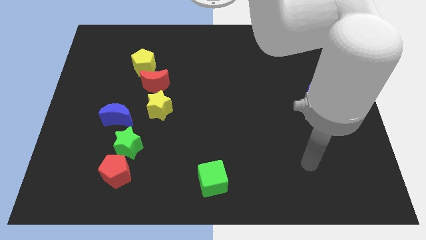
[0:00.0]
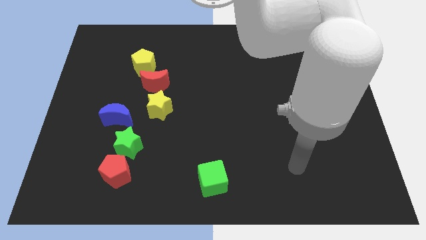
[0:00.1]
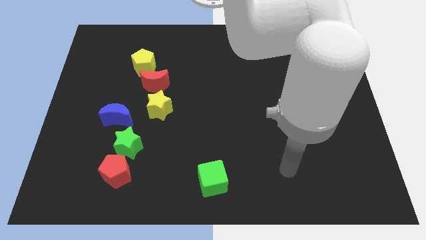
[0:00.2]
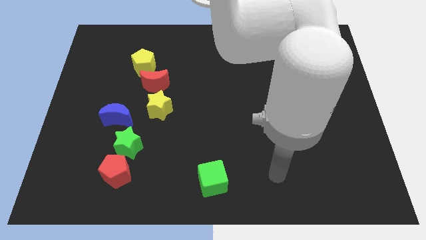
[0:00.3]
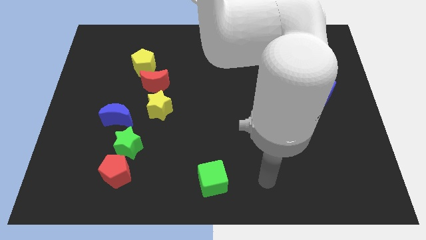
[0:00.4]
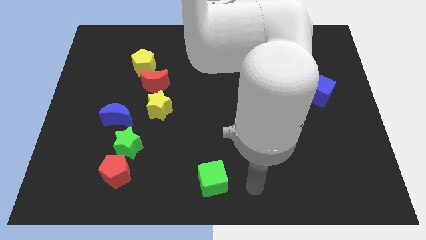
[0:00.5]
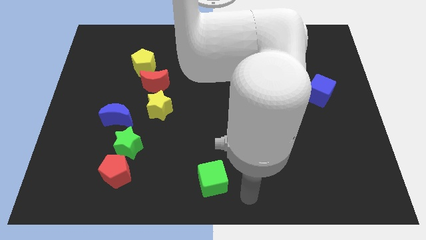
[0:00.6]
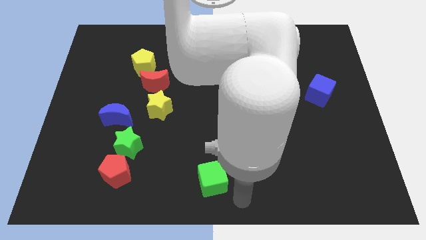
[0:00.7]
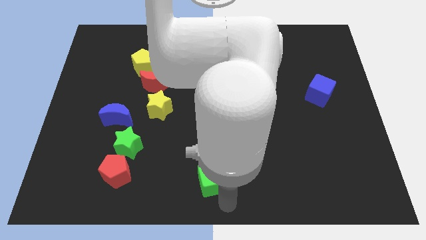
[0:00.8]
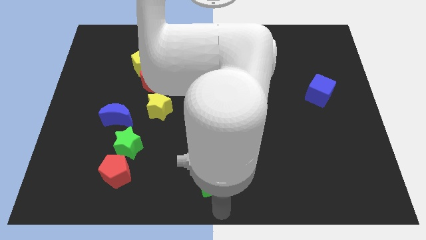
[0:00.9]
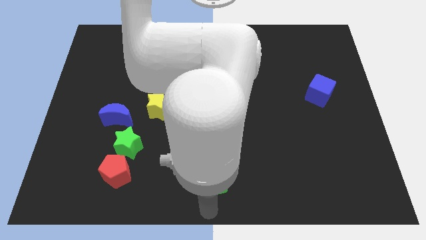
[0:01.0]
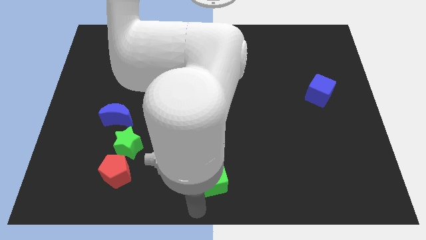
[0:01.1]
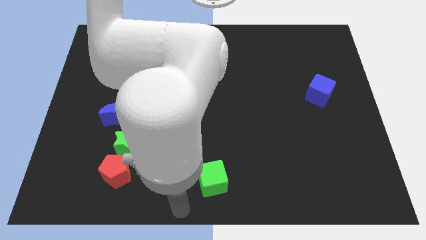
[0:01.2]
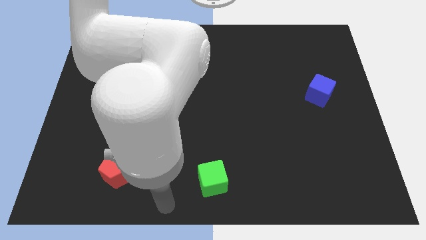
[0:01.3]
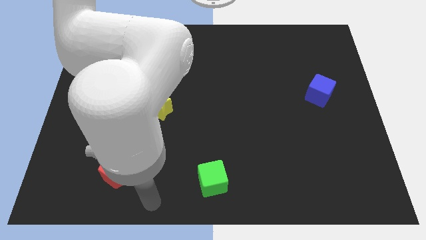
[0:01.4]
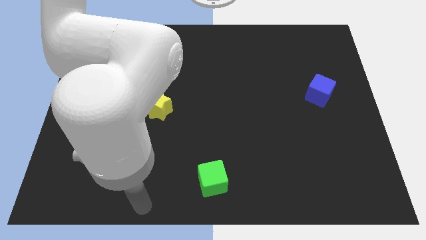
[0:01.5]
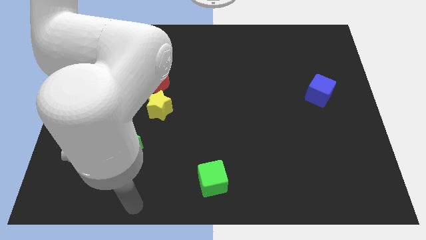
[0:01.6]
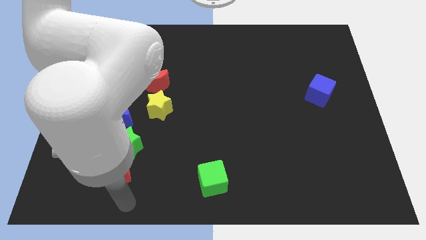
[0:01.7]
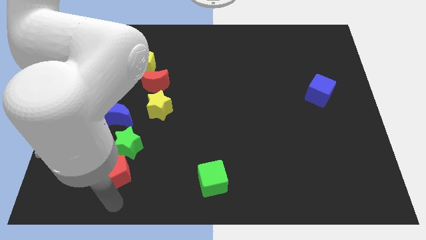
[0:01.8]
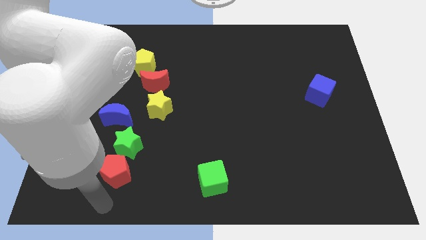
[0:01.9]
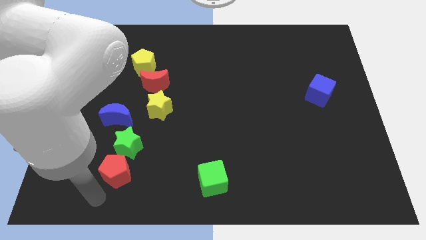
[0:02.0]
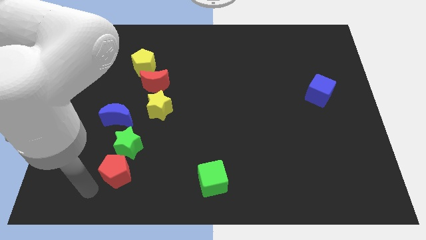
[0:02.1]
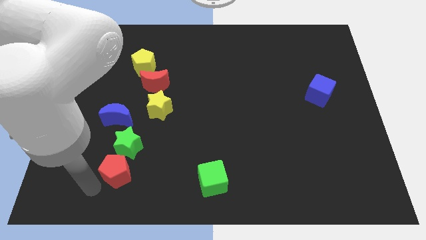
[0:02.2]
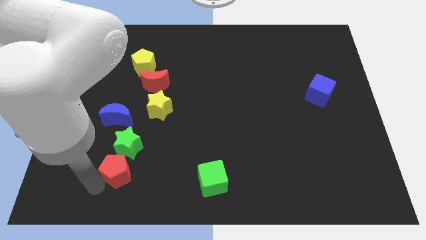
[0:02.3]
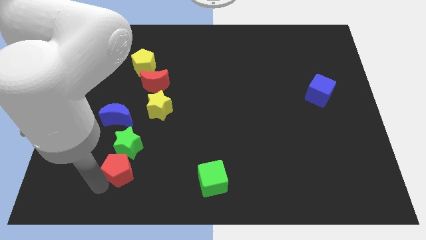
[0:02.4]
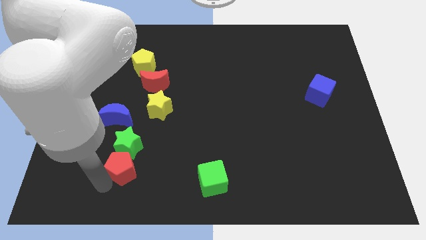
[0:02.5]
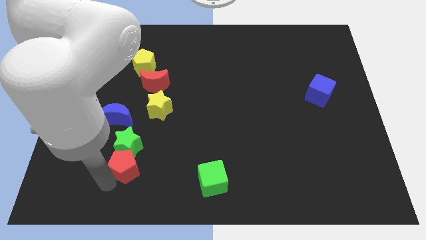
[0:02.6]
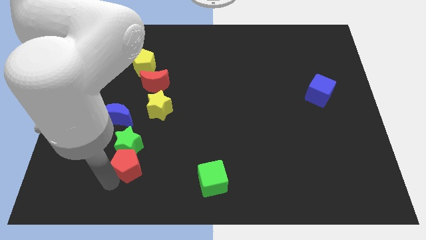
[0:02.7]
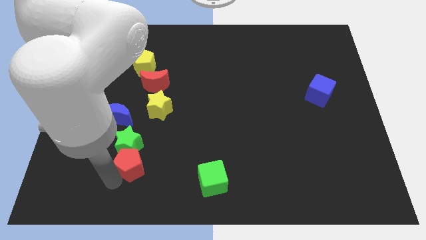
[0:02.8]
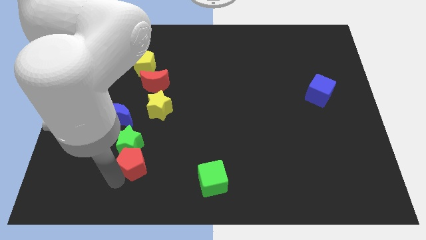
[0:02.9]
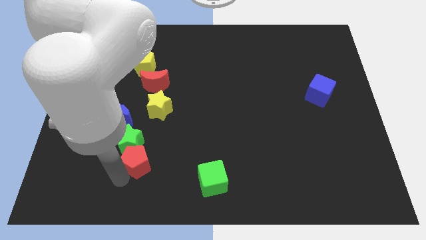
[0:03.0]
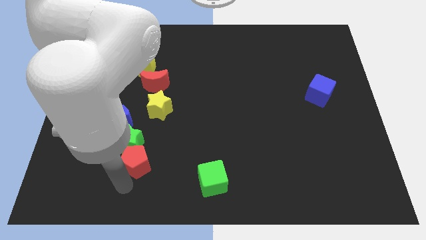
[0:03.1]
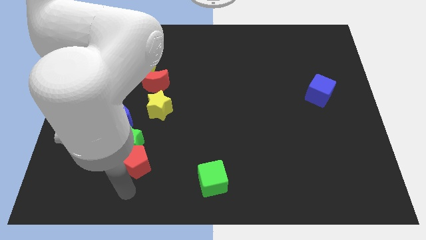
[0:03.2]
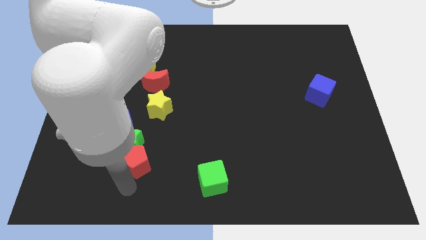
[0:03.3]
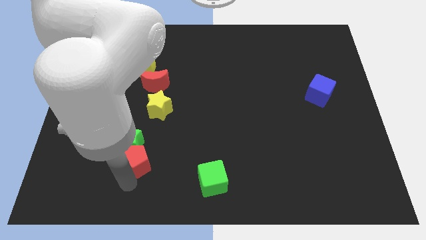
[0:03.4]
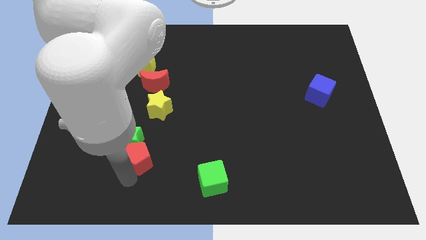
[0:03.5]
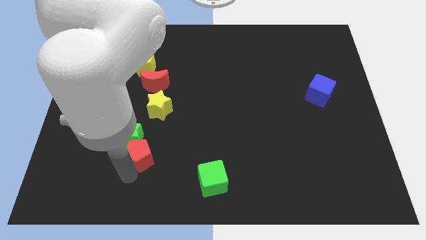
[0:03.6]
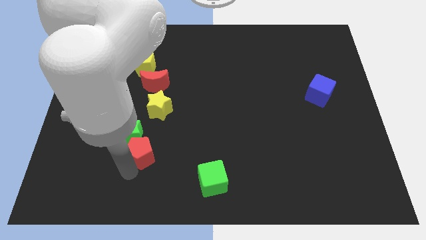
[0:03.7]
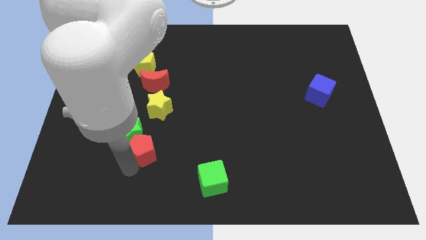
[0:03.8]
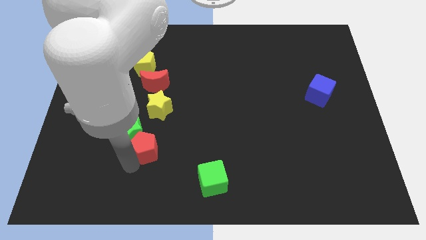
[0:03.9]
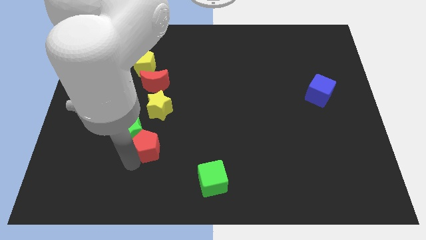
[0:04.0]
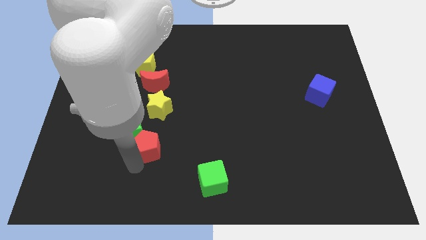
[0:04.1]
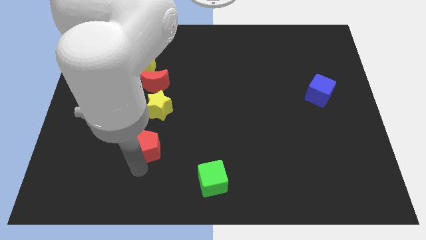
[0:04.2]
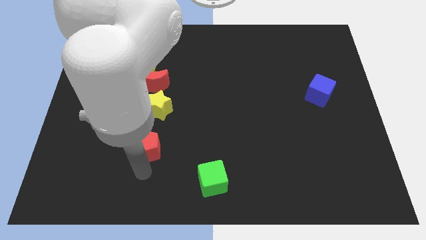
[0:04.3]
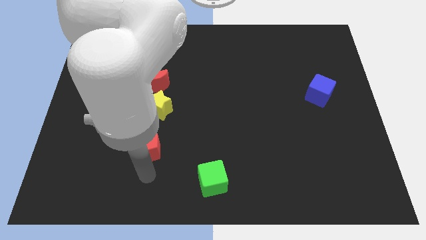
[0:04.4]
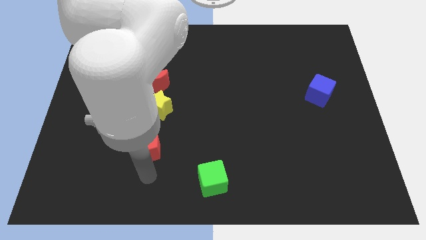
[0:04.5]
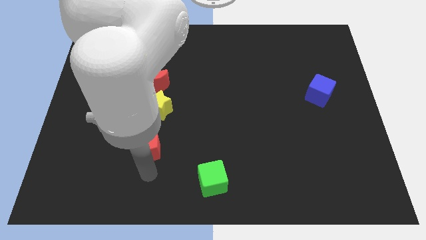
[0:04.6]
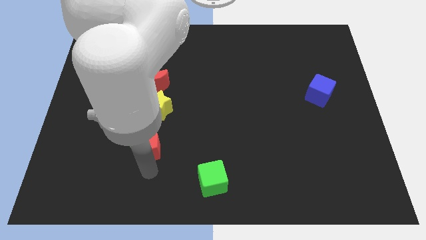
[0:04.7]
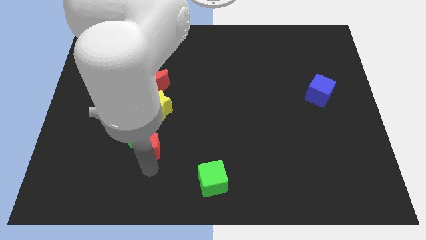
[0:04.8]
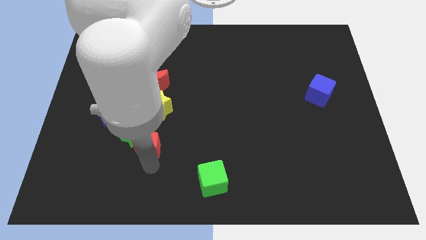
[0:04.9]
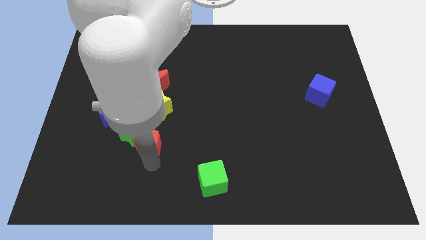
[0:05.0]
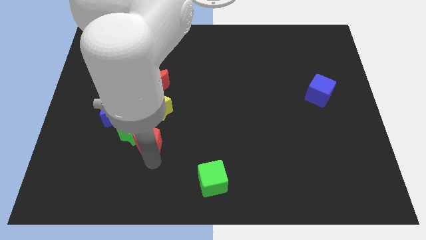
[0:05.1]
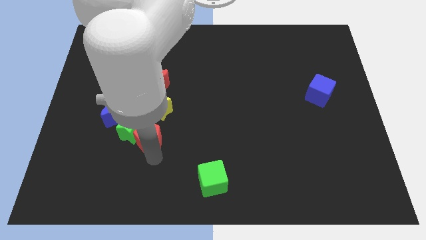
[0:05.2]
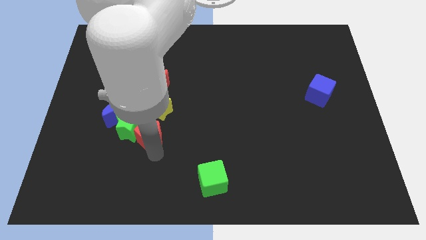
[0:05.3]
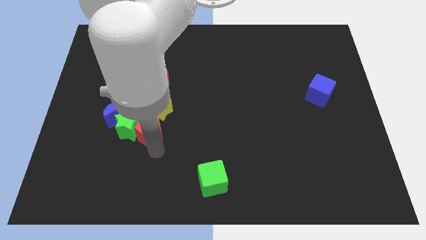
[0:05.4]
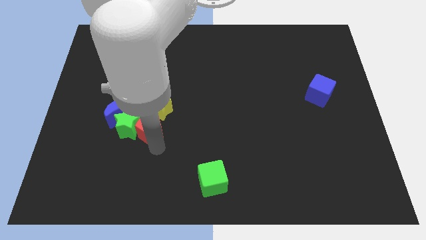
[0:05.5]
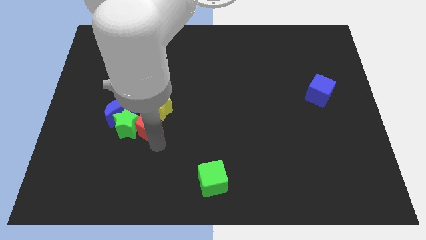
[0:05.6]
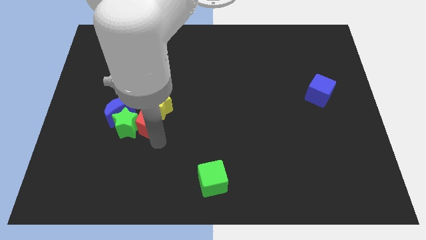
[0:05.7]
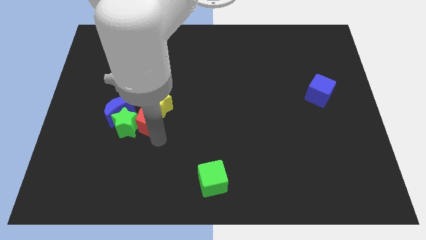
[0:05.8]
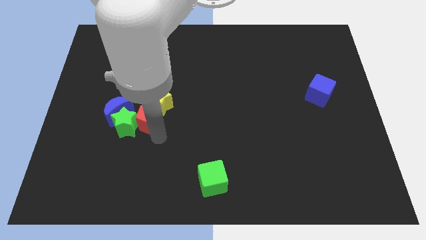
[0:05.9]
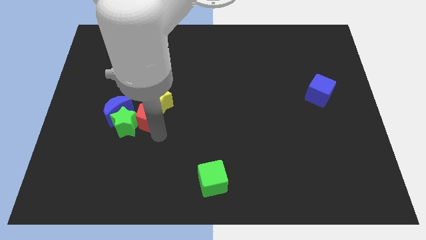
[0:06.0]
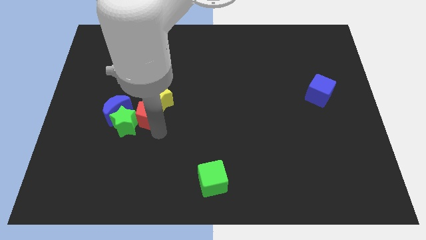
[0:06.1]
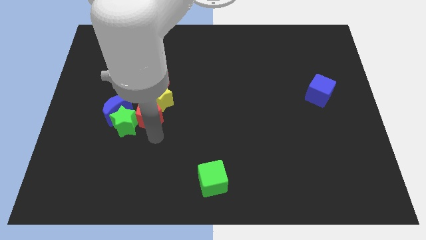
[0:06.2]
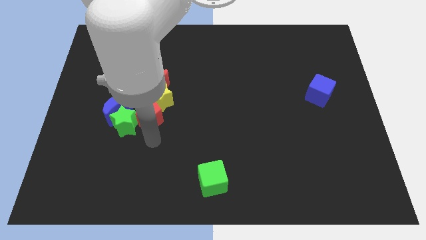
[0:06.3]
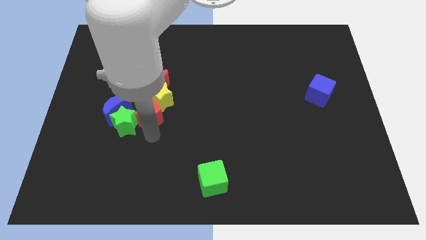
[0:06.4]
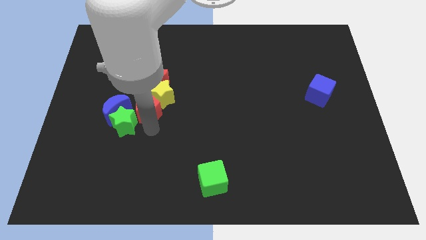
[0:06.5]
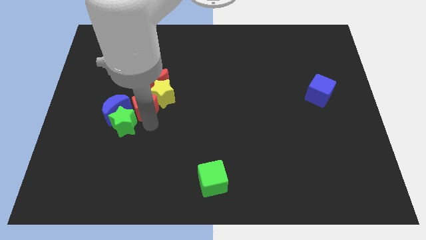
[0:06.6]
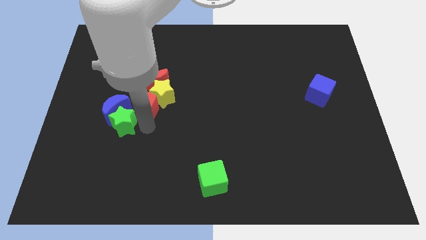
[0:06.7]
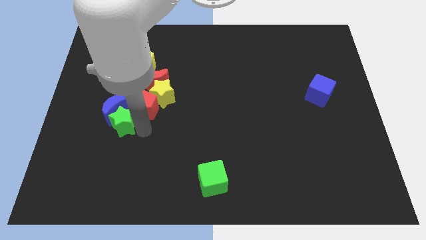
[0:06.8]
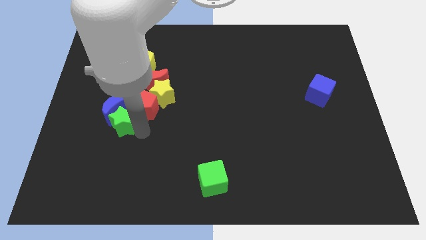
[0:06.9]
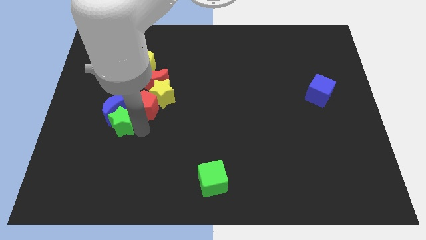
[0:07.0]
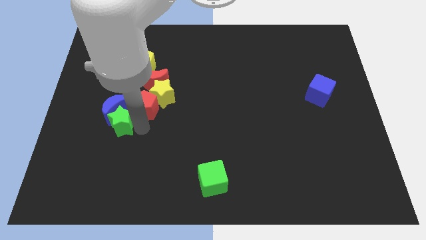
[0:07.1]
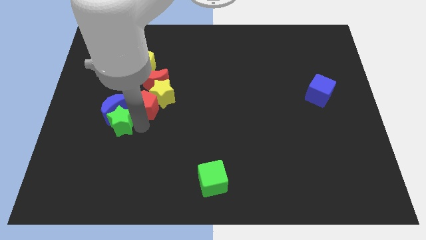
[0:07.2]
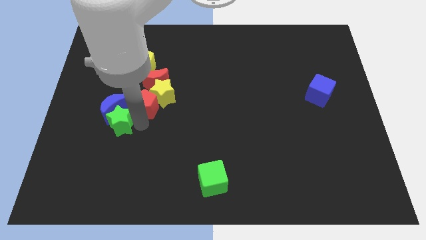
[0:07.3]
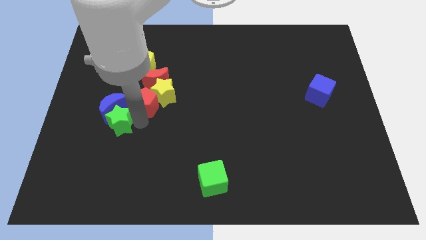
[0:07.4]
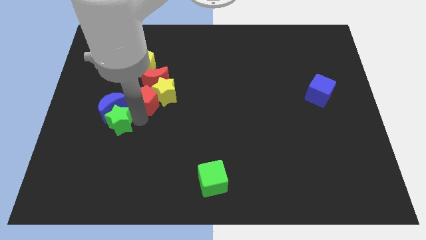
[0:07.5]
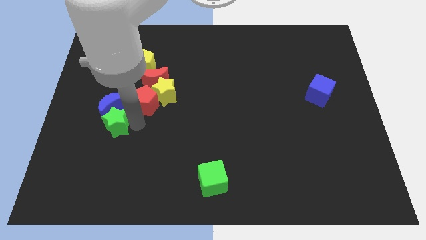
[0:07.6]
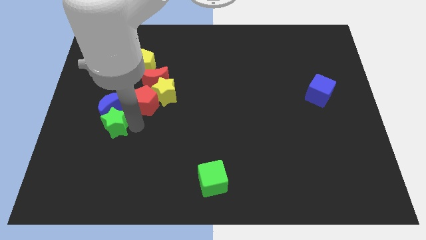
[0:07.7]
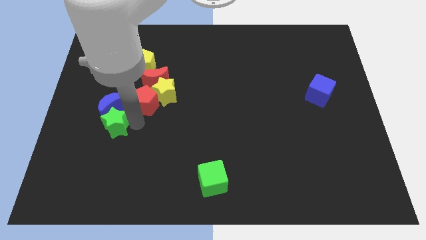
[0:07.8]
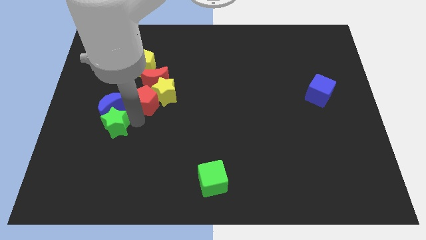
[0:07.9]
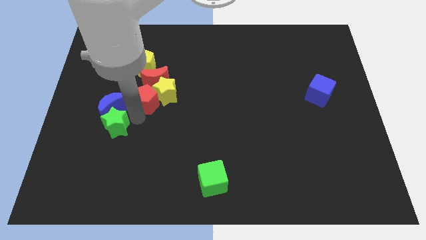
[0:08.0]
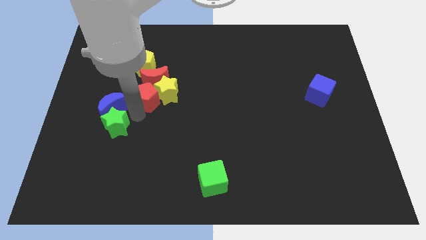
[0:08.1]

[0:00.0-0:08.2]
push the red pentagon close to the red moon
